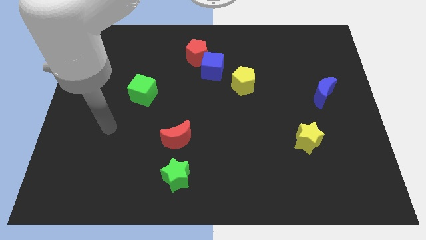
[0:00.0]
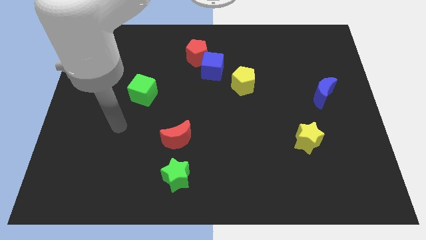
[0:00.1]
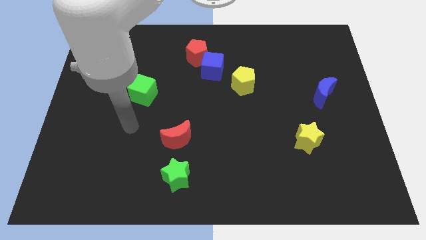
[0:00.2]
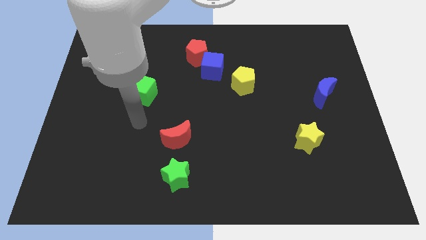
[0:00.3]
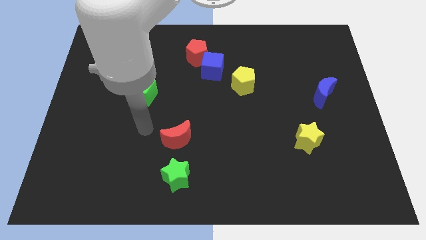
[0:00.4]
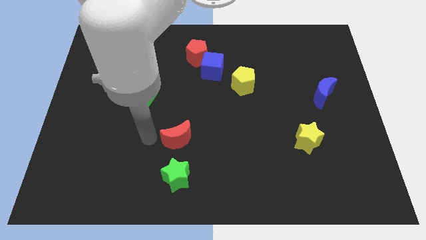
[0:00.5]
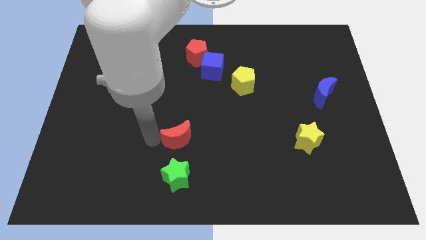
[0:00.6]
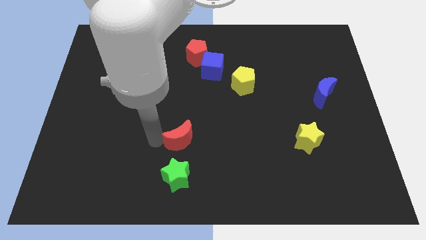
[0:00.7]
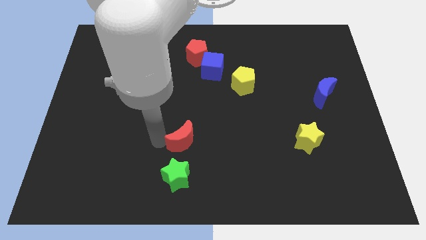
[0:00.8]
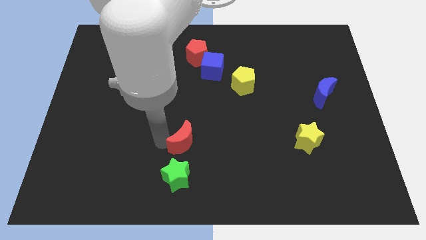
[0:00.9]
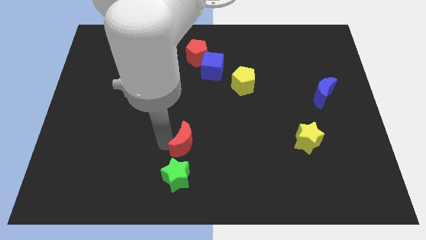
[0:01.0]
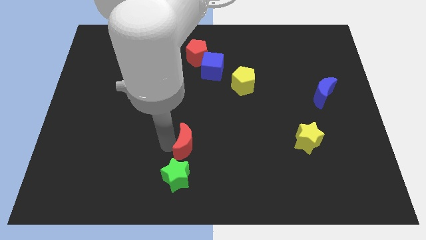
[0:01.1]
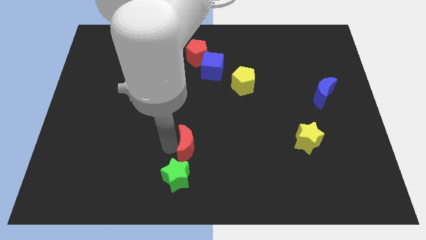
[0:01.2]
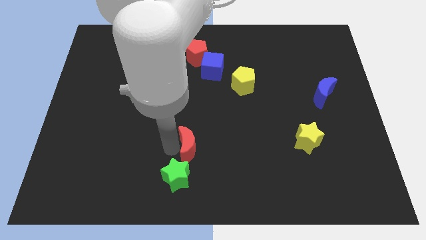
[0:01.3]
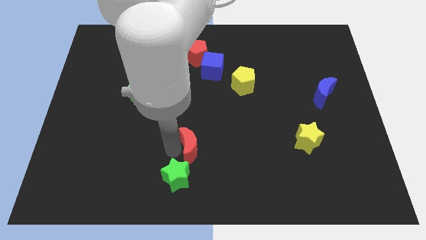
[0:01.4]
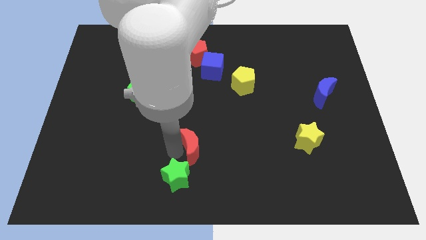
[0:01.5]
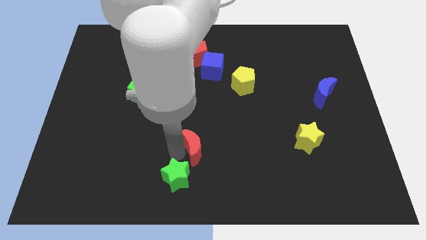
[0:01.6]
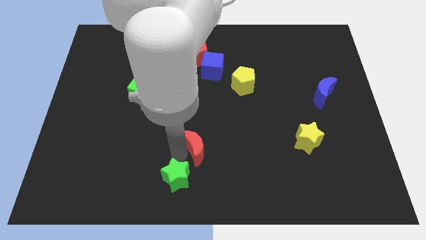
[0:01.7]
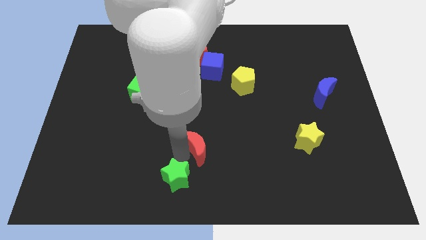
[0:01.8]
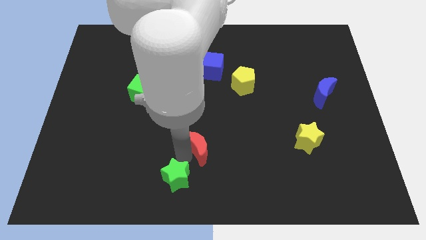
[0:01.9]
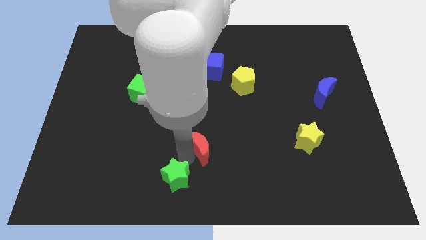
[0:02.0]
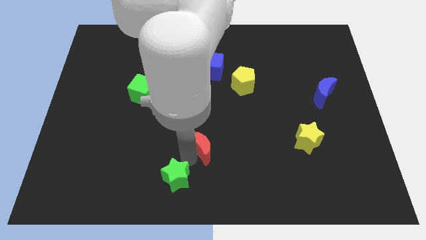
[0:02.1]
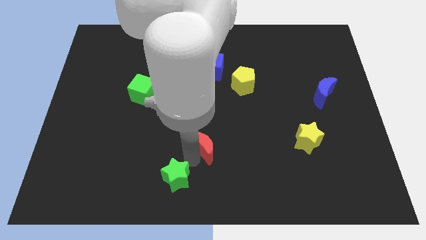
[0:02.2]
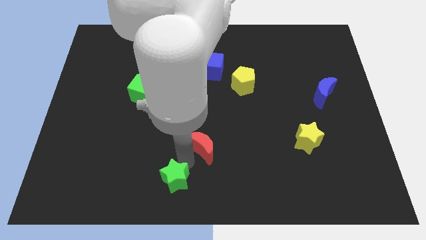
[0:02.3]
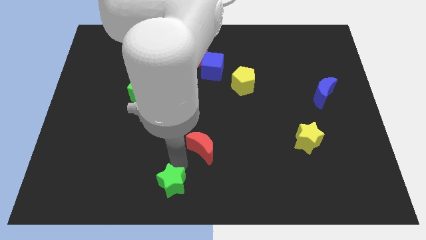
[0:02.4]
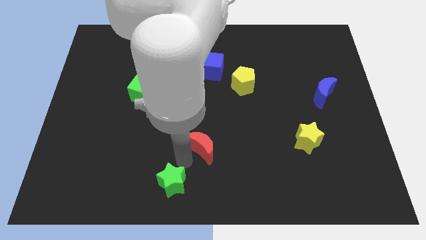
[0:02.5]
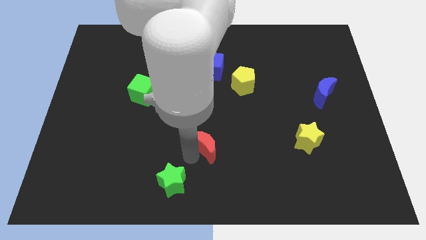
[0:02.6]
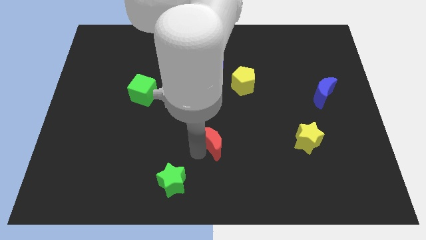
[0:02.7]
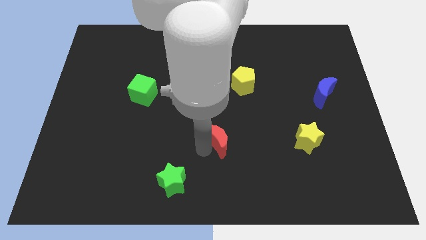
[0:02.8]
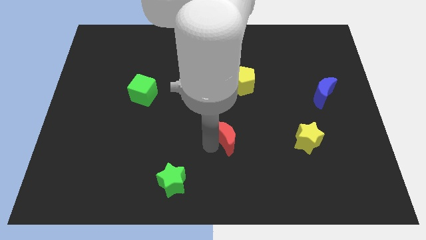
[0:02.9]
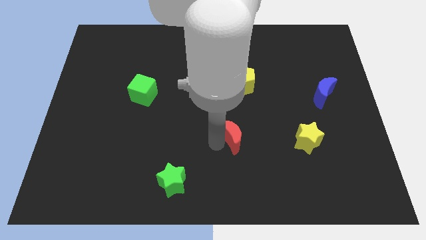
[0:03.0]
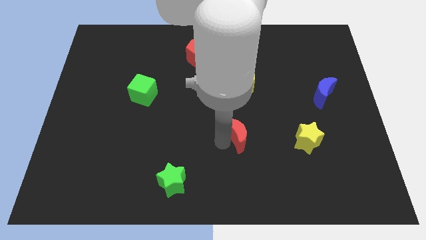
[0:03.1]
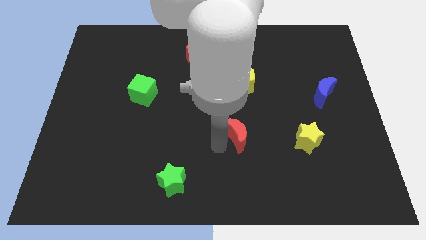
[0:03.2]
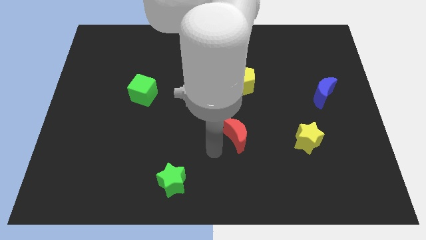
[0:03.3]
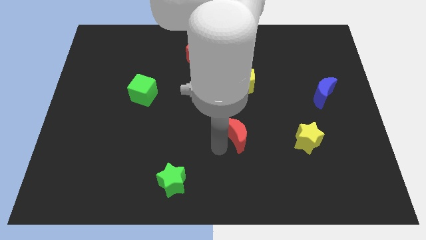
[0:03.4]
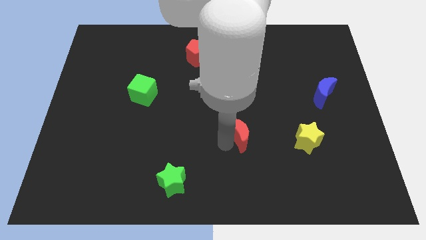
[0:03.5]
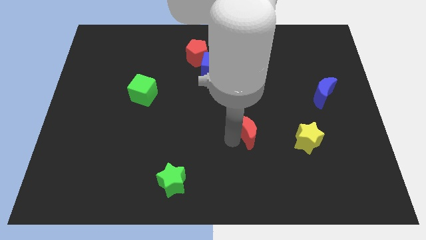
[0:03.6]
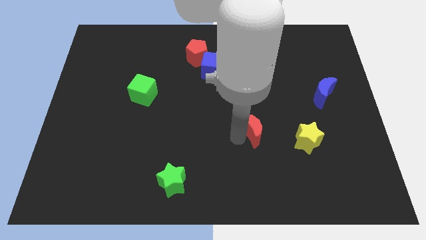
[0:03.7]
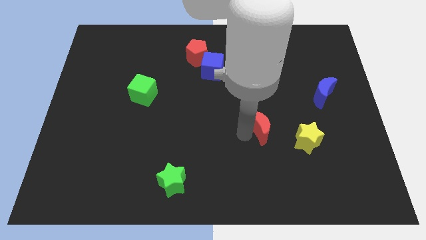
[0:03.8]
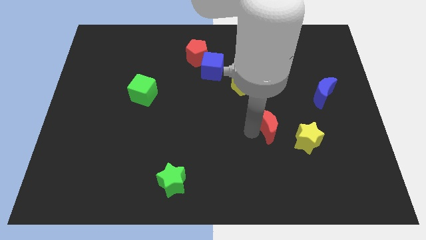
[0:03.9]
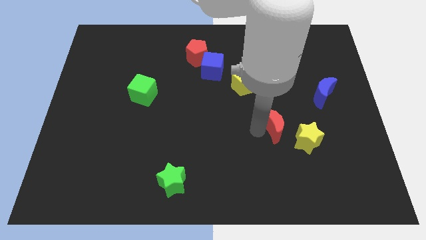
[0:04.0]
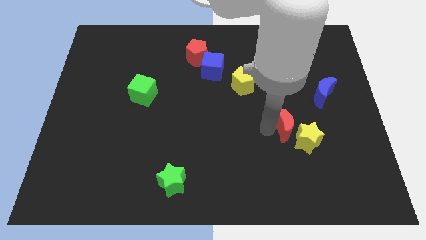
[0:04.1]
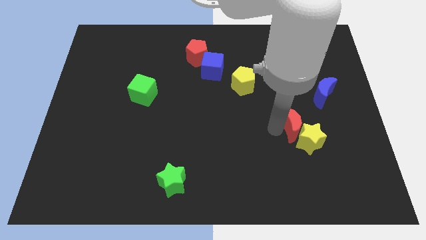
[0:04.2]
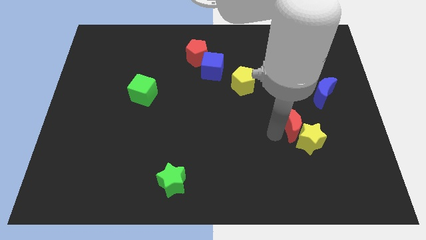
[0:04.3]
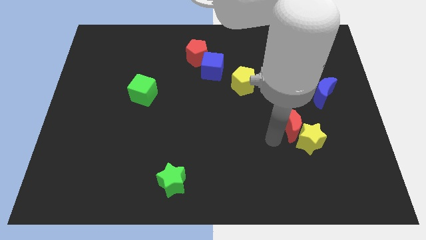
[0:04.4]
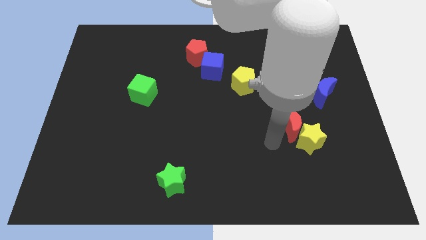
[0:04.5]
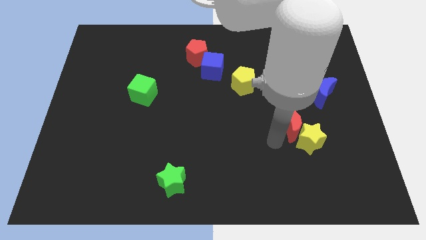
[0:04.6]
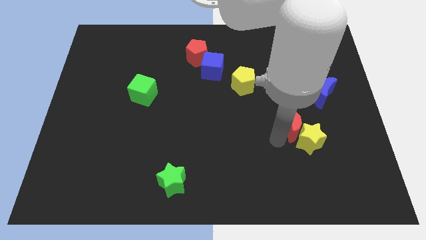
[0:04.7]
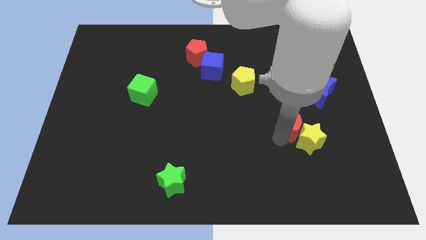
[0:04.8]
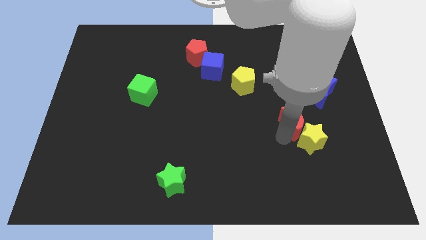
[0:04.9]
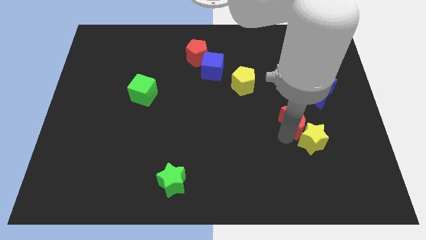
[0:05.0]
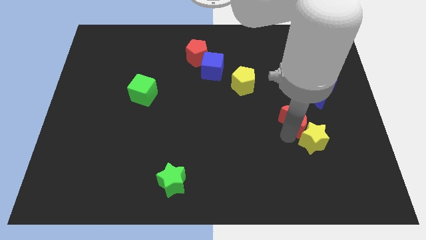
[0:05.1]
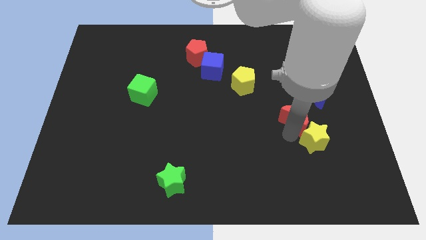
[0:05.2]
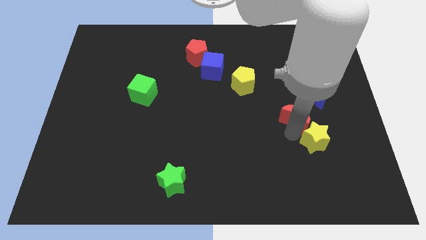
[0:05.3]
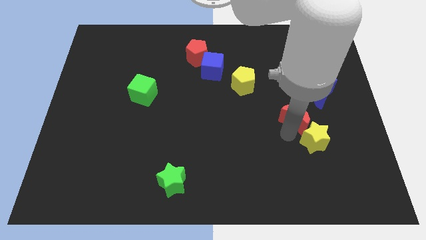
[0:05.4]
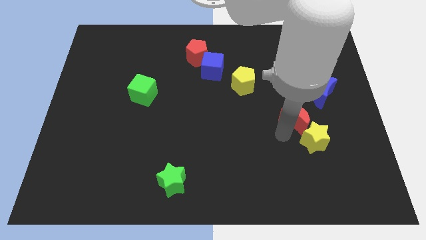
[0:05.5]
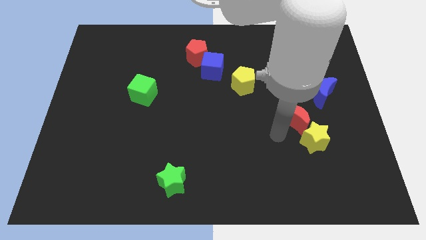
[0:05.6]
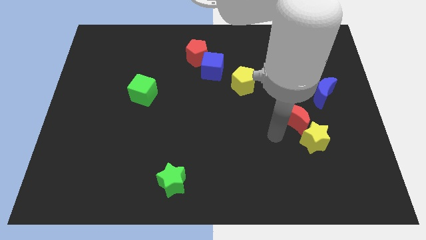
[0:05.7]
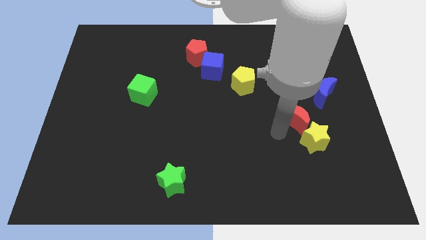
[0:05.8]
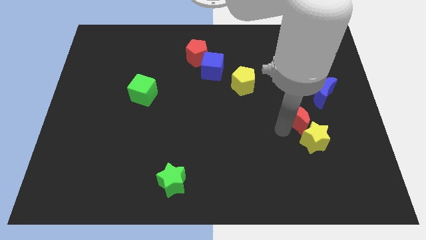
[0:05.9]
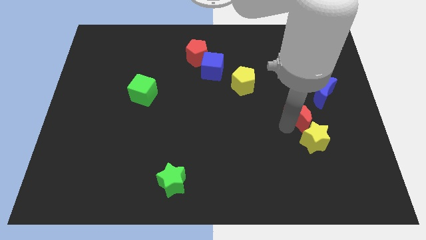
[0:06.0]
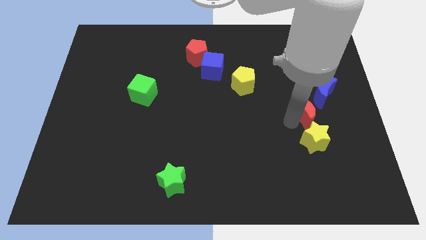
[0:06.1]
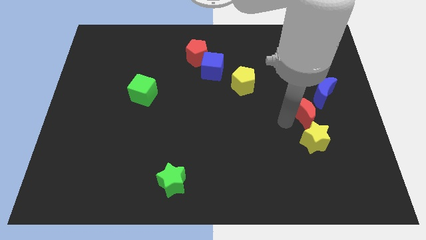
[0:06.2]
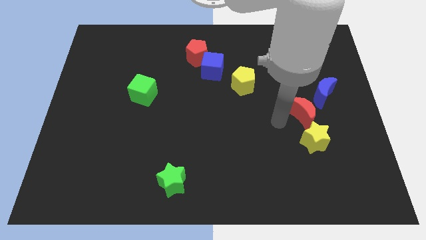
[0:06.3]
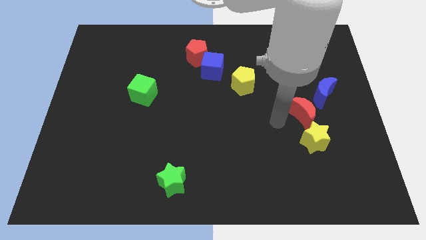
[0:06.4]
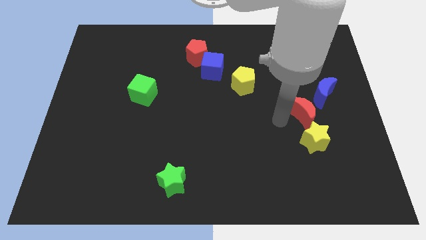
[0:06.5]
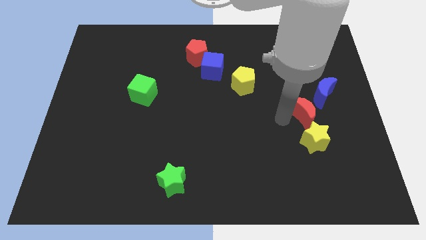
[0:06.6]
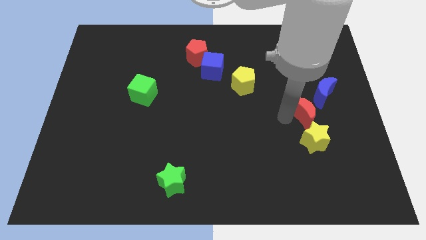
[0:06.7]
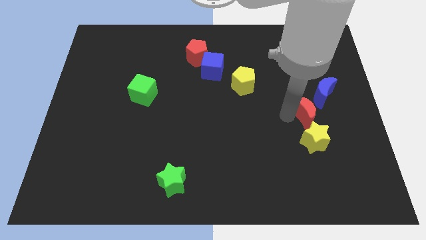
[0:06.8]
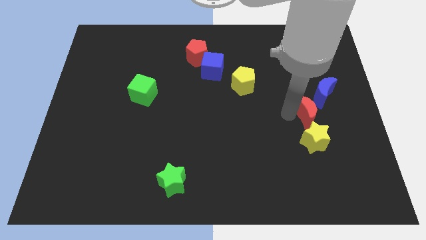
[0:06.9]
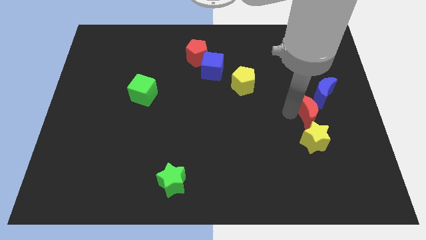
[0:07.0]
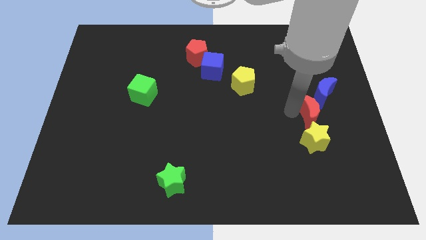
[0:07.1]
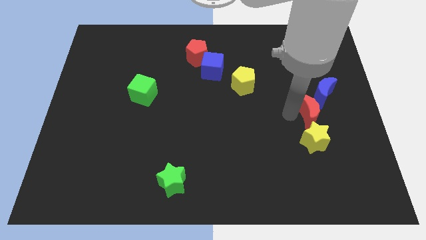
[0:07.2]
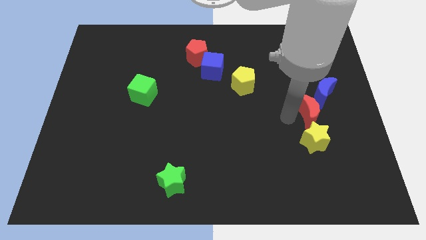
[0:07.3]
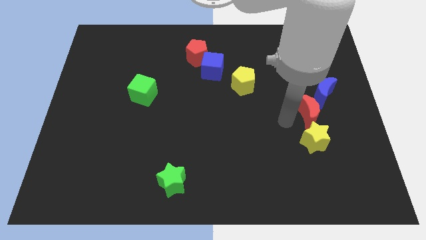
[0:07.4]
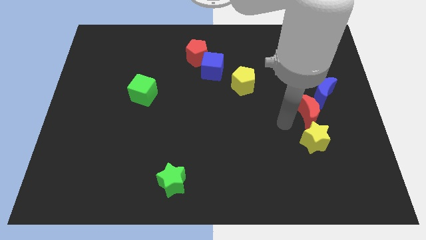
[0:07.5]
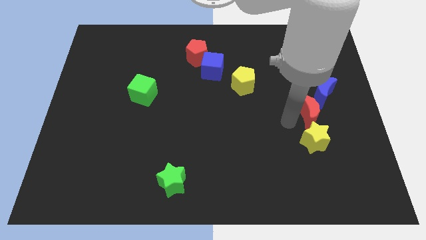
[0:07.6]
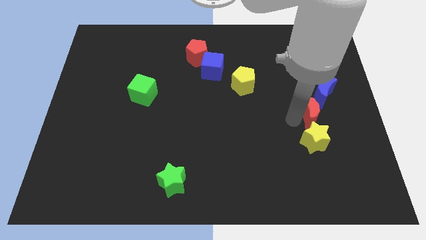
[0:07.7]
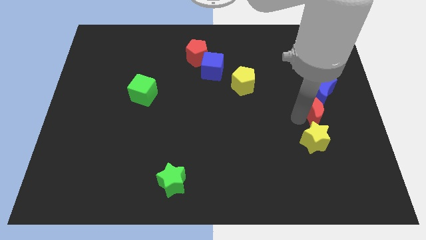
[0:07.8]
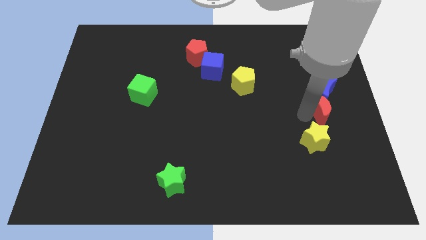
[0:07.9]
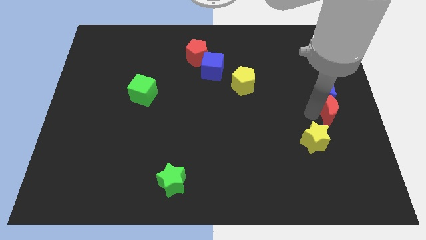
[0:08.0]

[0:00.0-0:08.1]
push the red moon to the center right

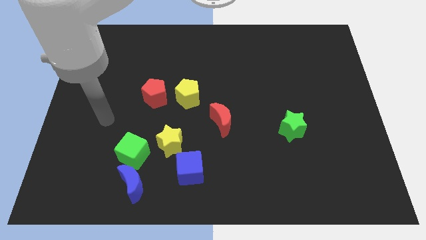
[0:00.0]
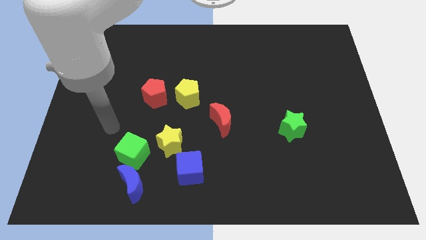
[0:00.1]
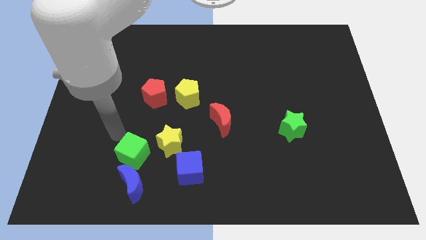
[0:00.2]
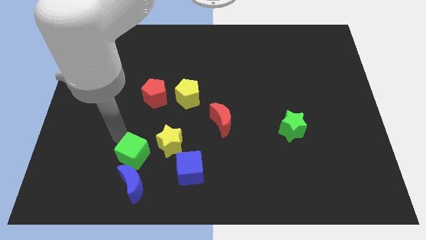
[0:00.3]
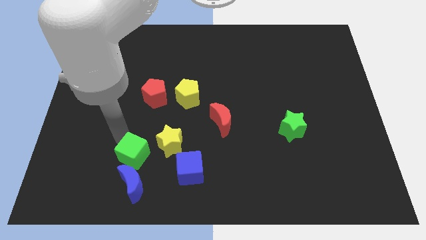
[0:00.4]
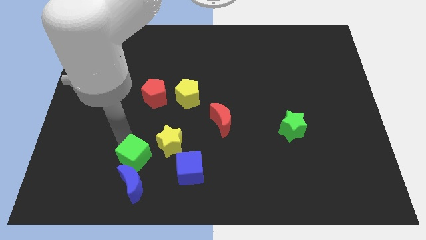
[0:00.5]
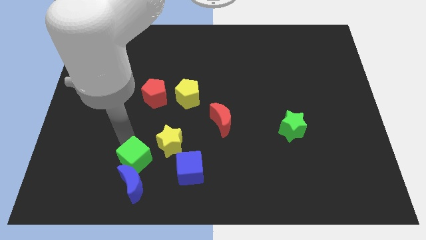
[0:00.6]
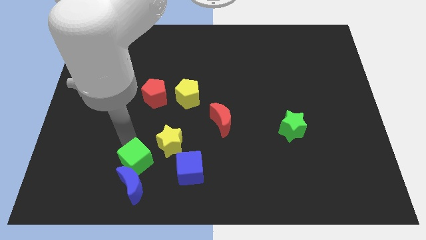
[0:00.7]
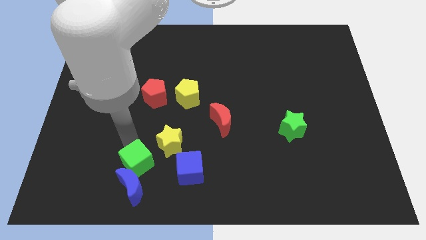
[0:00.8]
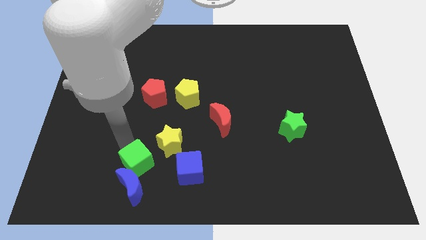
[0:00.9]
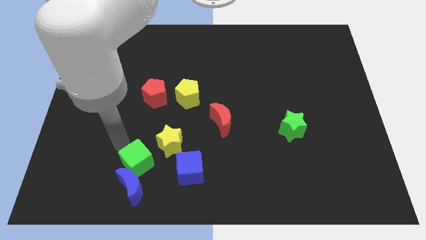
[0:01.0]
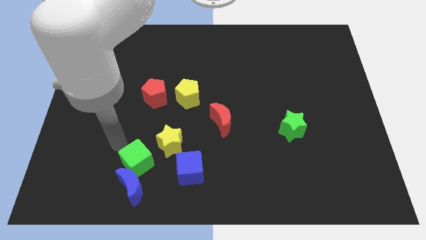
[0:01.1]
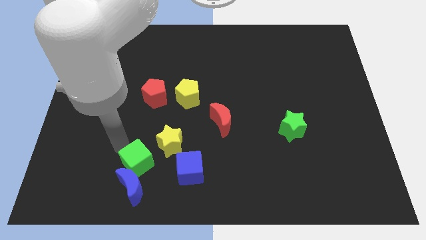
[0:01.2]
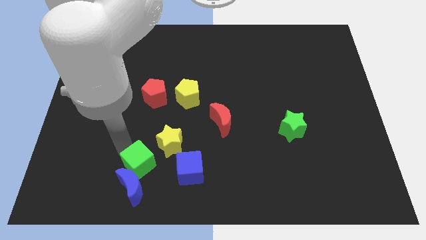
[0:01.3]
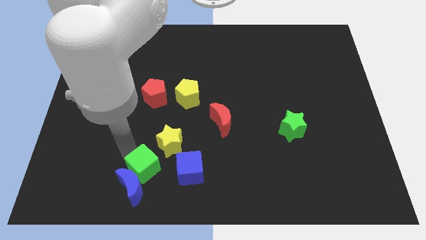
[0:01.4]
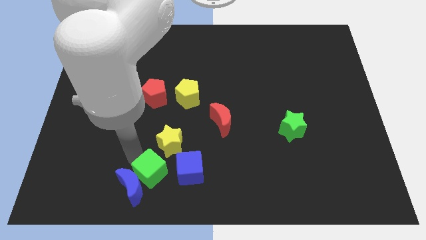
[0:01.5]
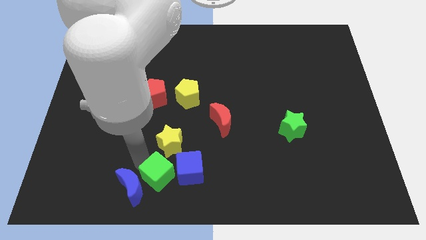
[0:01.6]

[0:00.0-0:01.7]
slide the green cube to the bottom side
